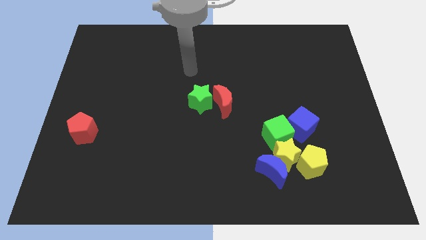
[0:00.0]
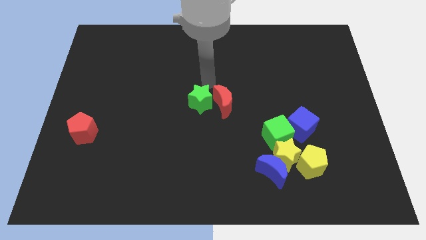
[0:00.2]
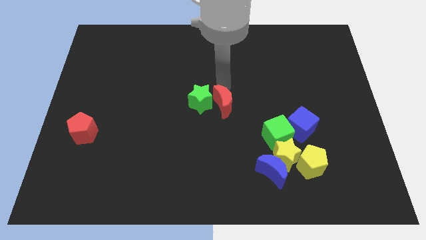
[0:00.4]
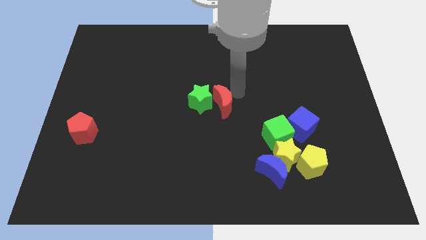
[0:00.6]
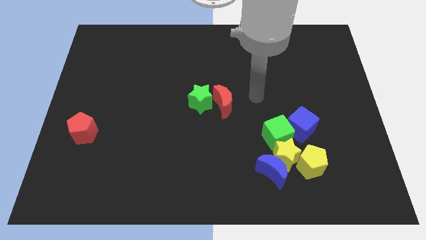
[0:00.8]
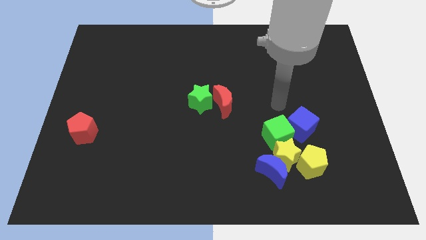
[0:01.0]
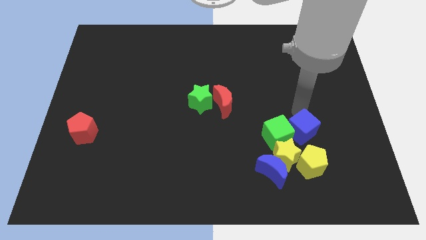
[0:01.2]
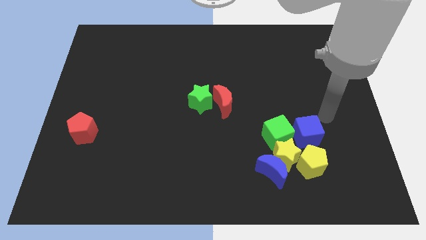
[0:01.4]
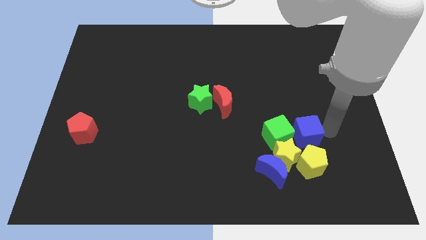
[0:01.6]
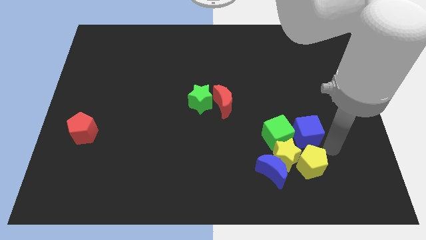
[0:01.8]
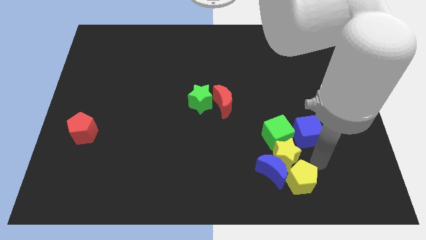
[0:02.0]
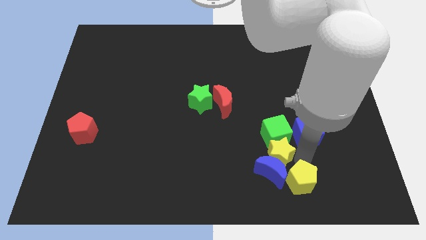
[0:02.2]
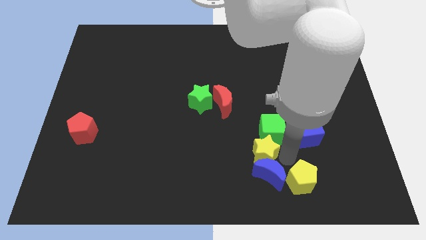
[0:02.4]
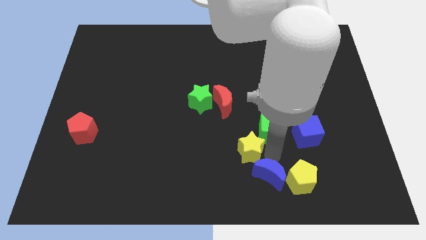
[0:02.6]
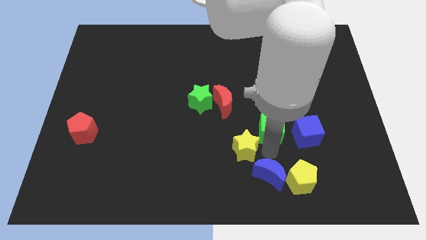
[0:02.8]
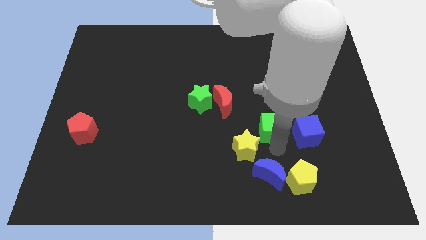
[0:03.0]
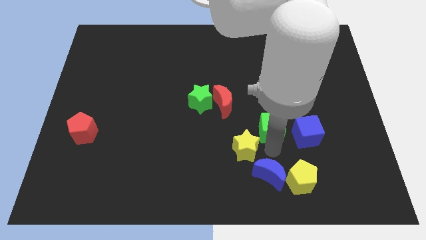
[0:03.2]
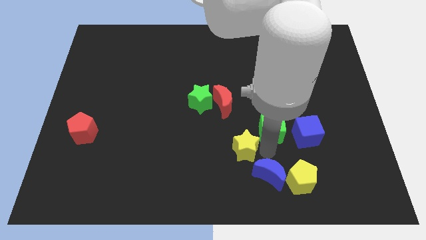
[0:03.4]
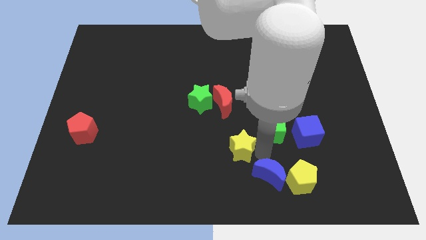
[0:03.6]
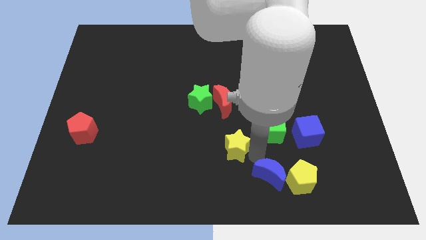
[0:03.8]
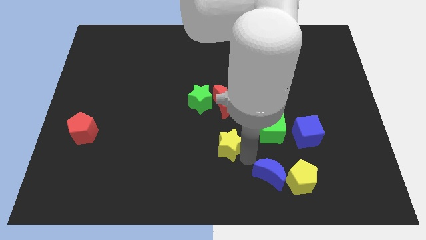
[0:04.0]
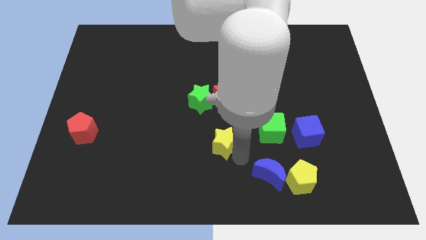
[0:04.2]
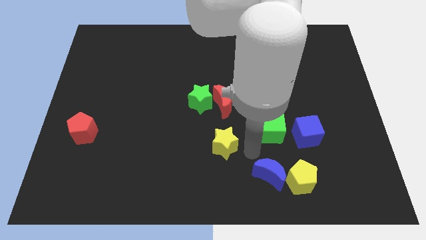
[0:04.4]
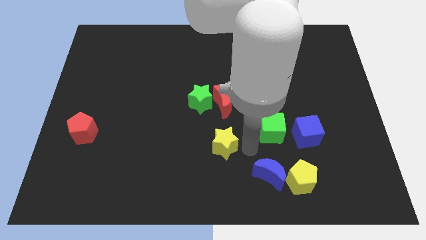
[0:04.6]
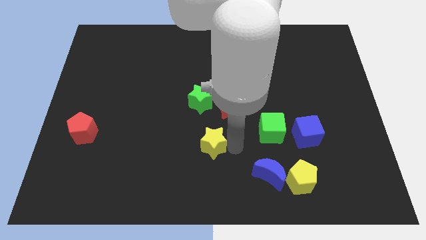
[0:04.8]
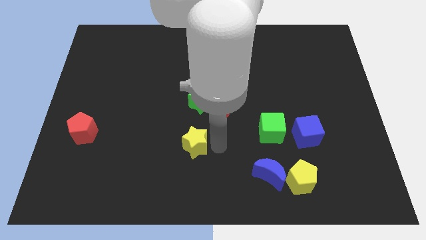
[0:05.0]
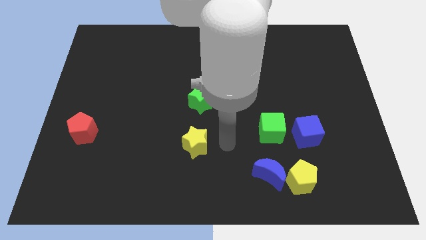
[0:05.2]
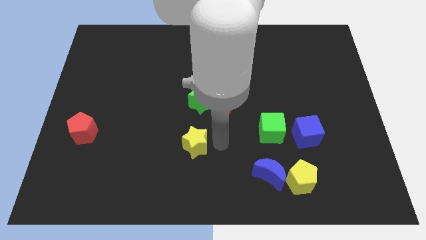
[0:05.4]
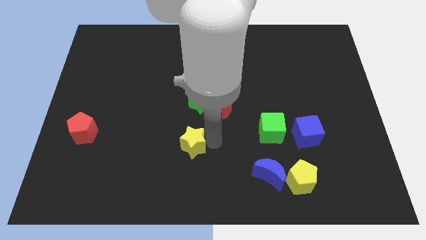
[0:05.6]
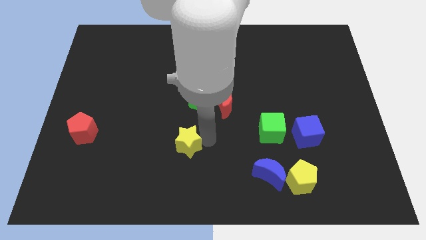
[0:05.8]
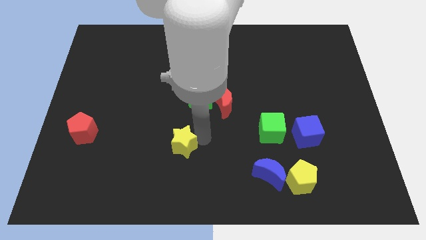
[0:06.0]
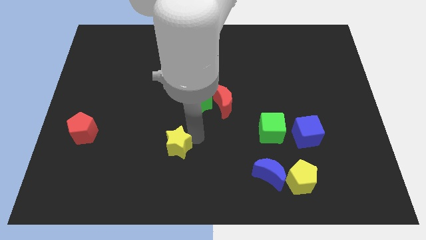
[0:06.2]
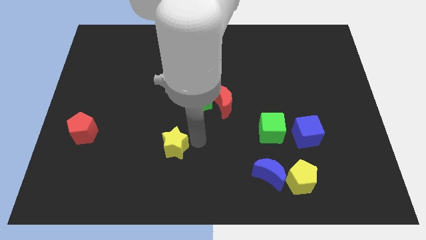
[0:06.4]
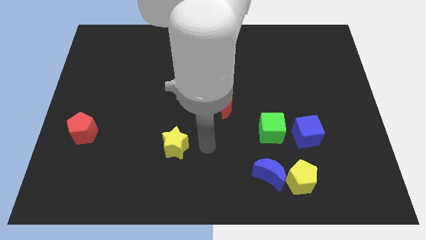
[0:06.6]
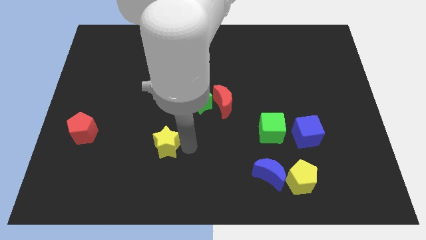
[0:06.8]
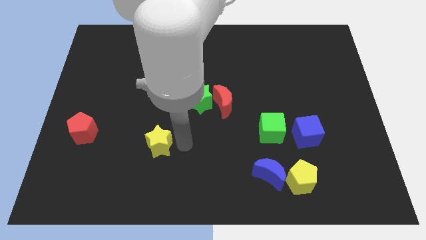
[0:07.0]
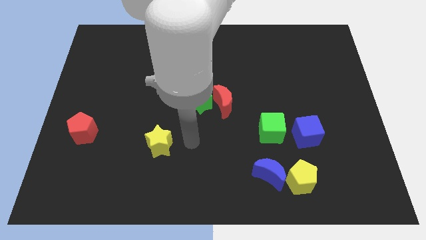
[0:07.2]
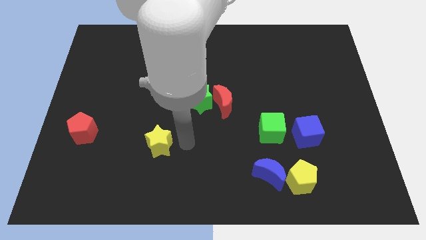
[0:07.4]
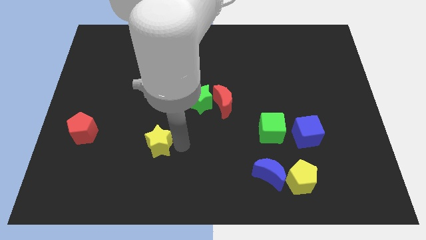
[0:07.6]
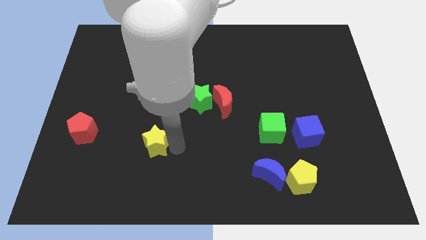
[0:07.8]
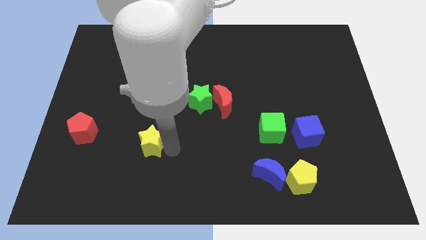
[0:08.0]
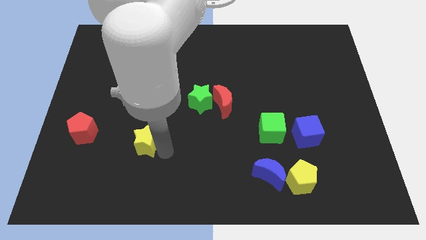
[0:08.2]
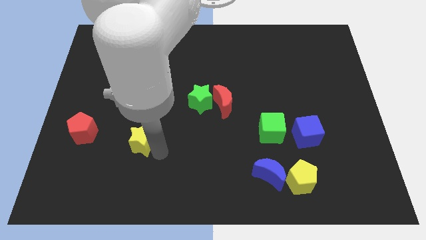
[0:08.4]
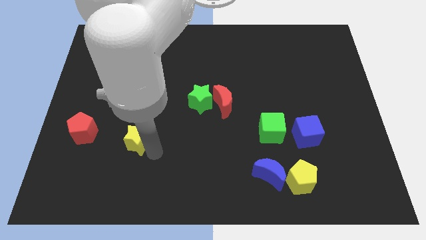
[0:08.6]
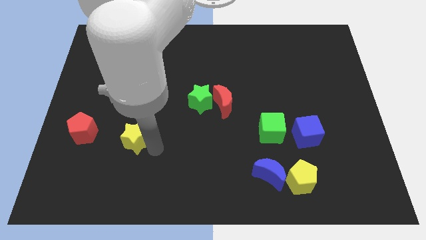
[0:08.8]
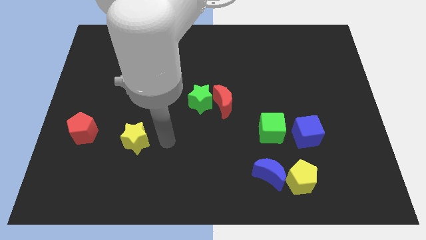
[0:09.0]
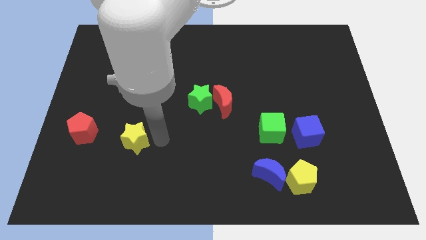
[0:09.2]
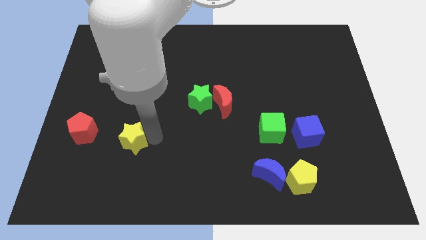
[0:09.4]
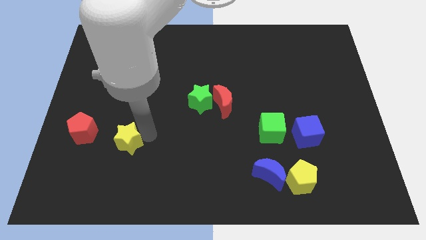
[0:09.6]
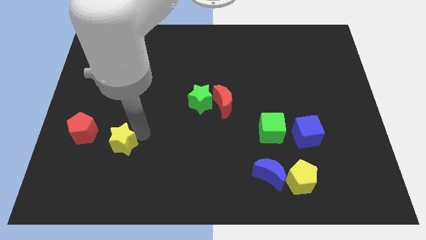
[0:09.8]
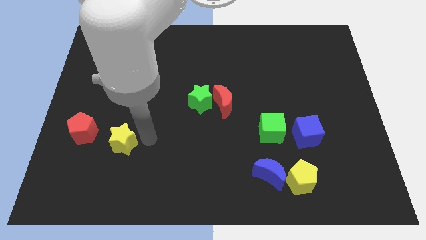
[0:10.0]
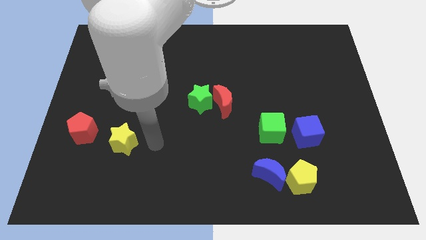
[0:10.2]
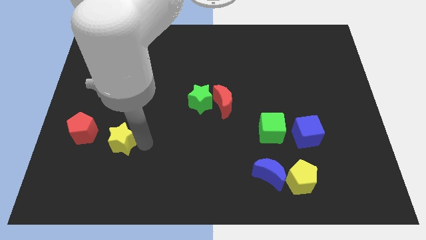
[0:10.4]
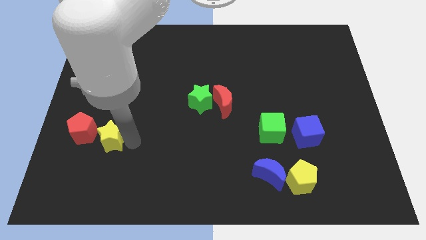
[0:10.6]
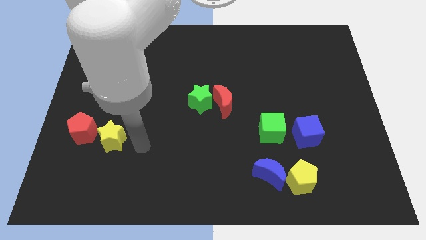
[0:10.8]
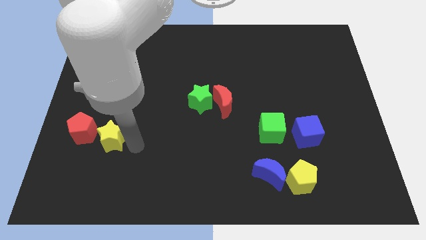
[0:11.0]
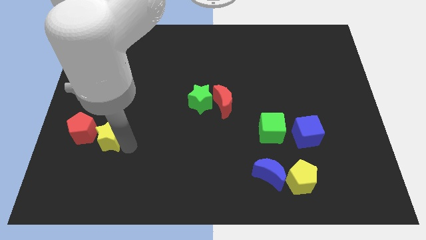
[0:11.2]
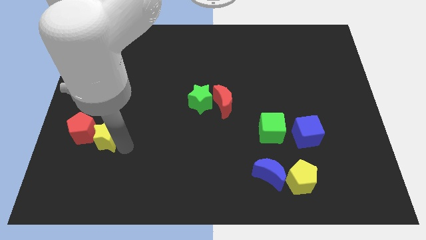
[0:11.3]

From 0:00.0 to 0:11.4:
put the yellow star next to the red pentagon

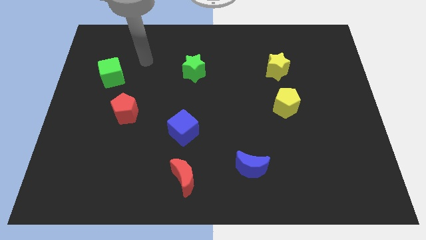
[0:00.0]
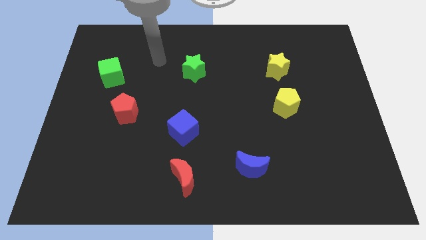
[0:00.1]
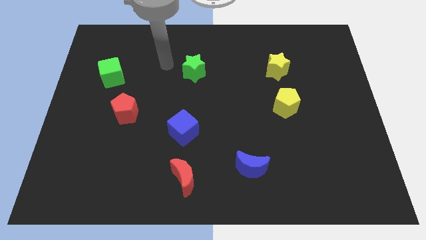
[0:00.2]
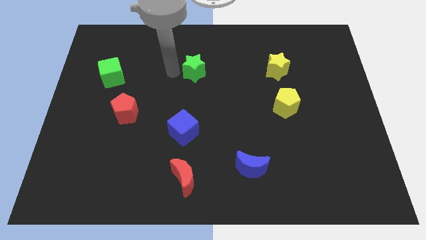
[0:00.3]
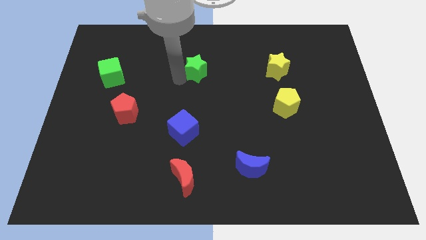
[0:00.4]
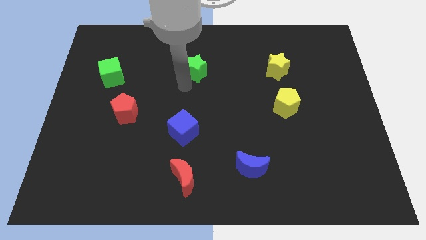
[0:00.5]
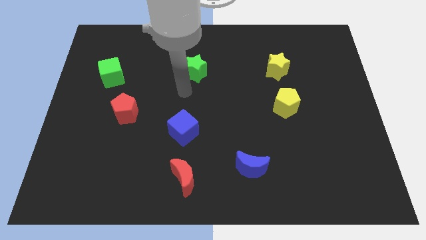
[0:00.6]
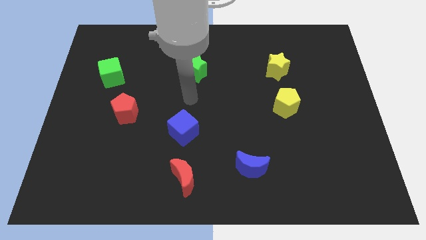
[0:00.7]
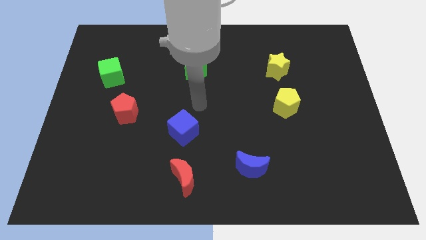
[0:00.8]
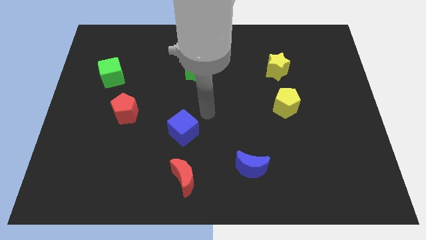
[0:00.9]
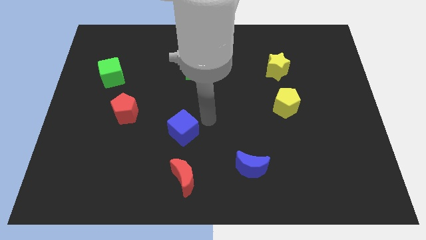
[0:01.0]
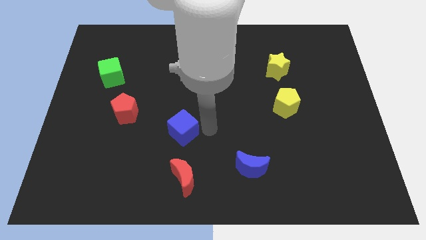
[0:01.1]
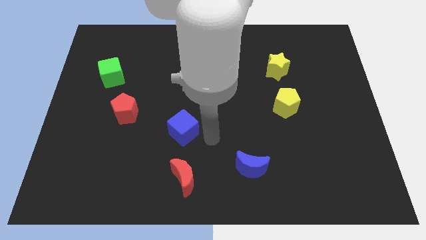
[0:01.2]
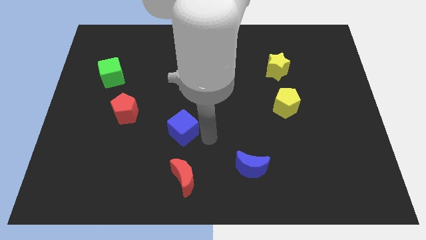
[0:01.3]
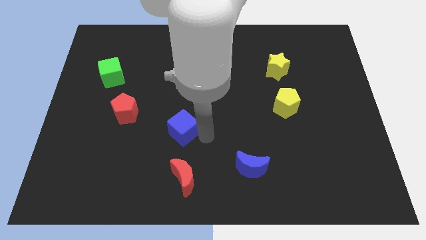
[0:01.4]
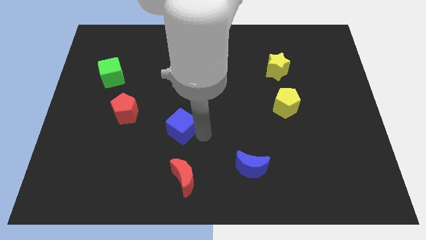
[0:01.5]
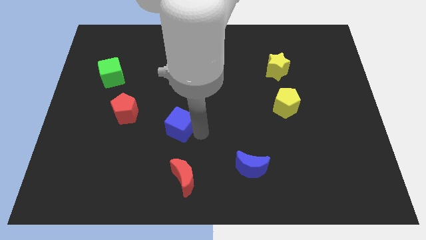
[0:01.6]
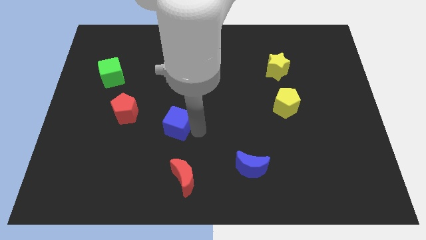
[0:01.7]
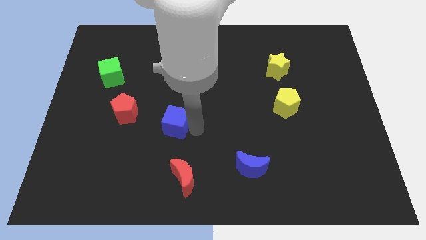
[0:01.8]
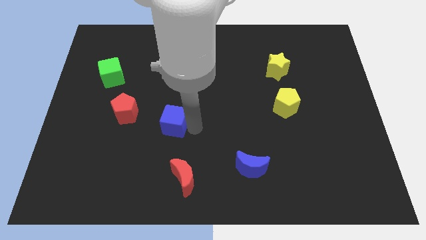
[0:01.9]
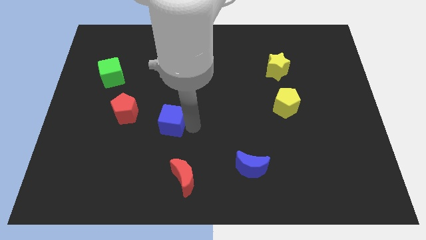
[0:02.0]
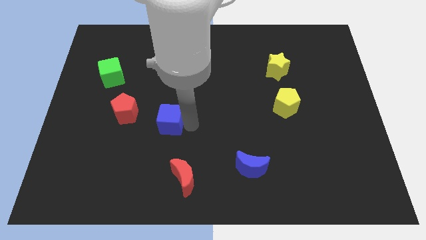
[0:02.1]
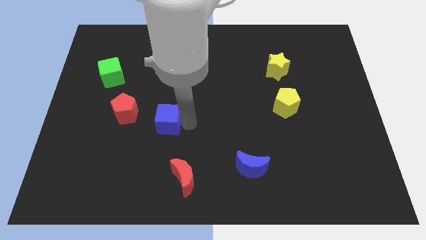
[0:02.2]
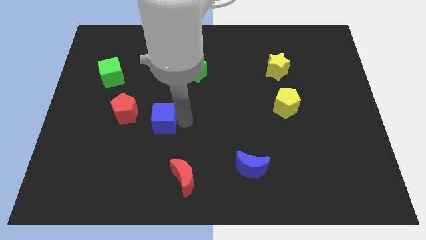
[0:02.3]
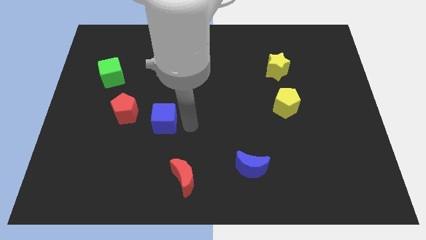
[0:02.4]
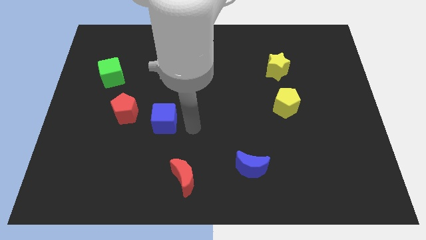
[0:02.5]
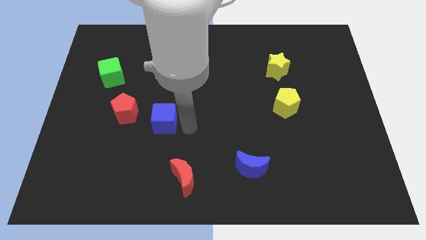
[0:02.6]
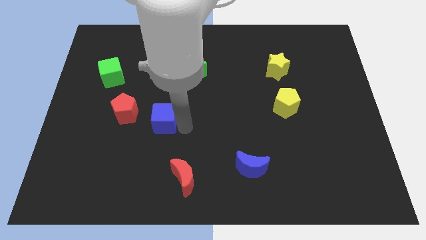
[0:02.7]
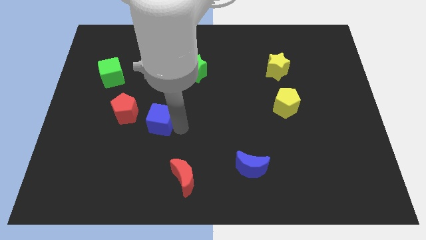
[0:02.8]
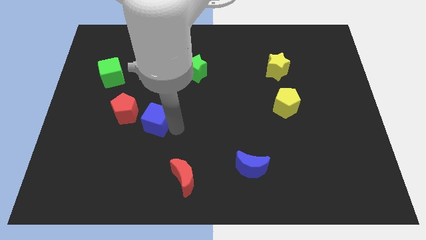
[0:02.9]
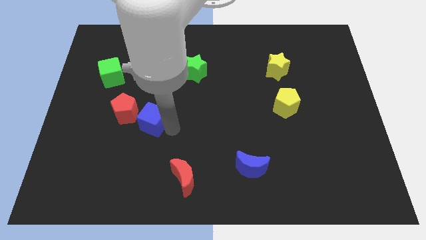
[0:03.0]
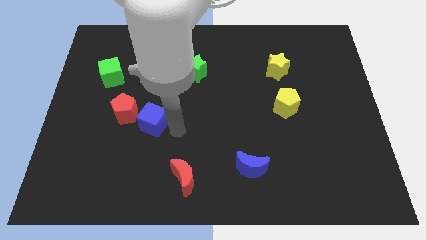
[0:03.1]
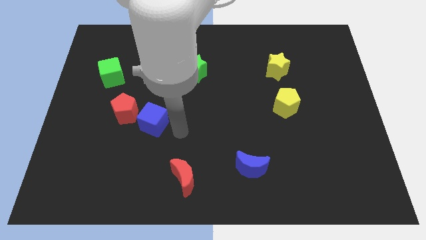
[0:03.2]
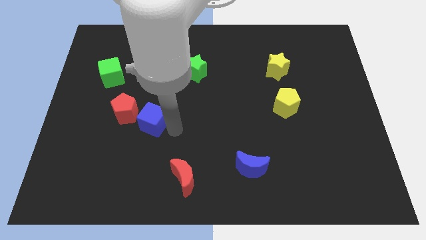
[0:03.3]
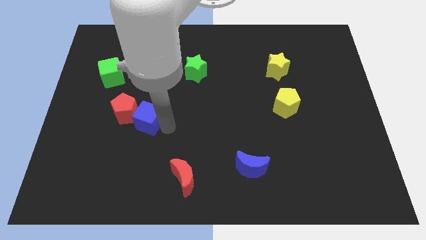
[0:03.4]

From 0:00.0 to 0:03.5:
put the blue cube close to the red pentagon
